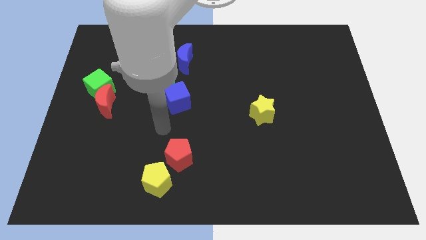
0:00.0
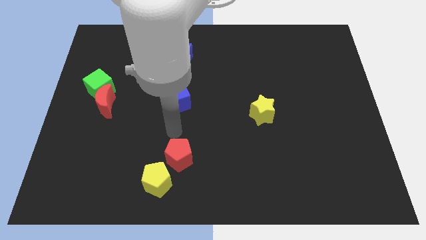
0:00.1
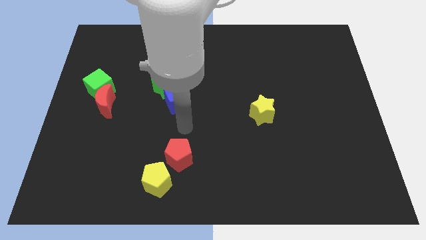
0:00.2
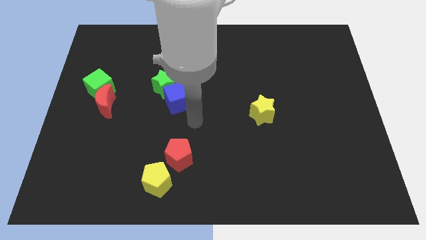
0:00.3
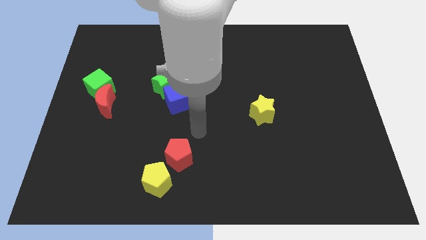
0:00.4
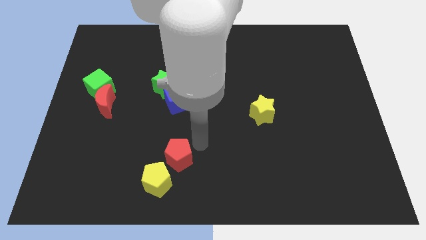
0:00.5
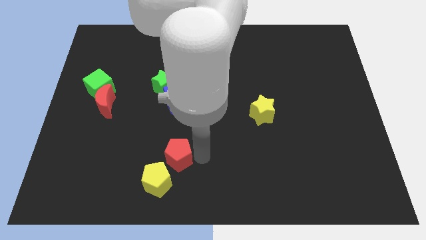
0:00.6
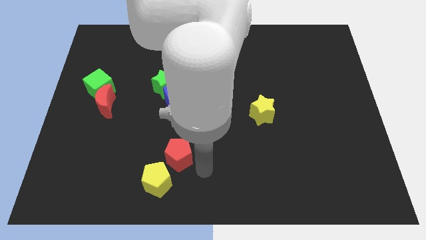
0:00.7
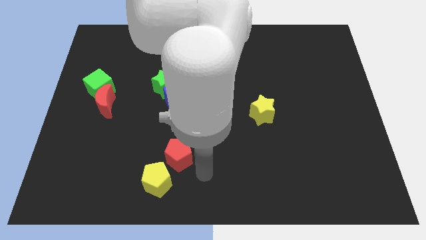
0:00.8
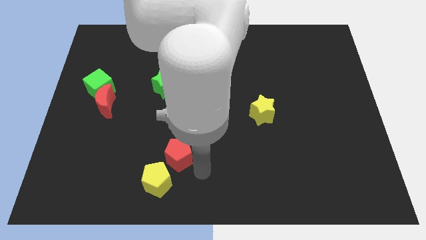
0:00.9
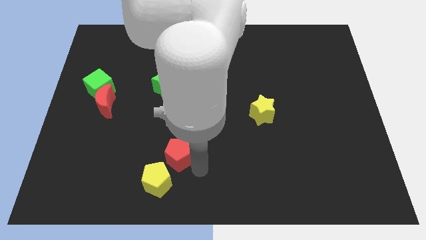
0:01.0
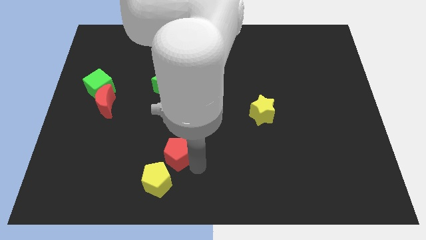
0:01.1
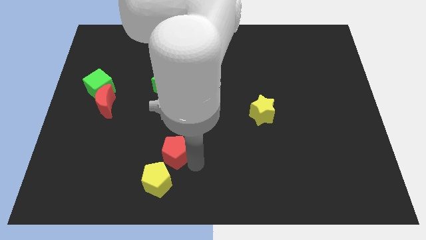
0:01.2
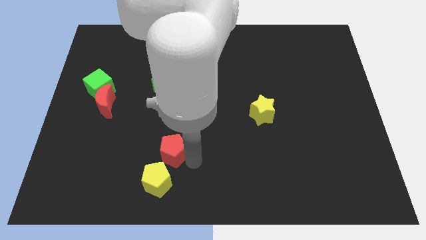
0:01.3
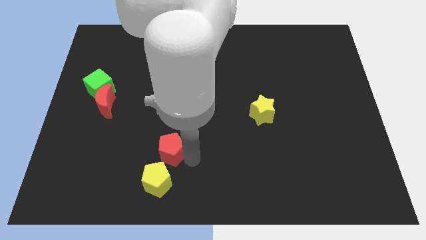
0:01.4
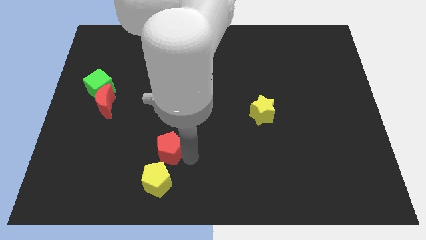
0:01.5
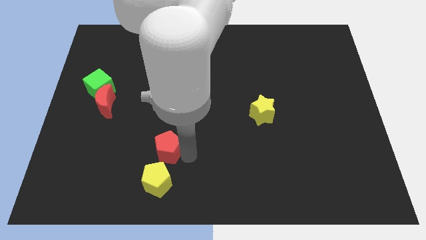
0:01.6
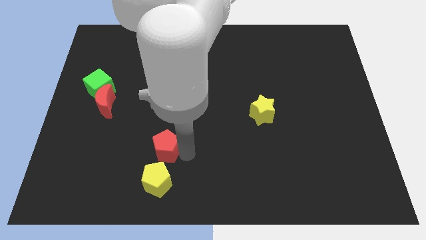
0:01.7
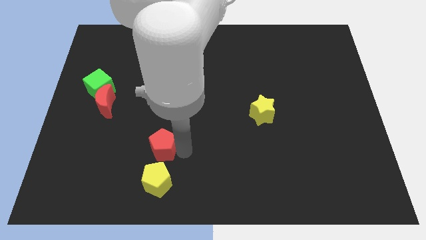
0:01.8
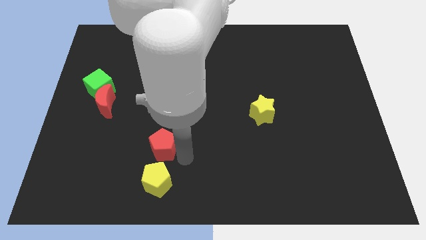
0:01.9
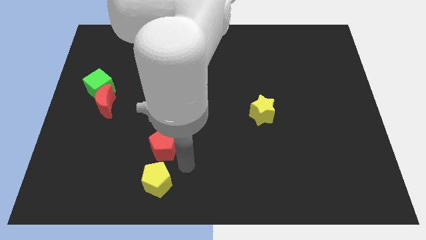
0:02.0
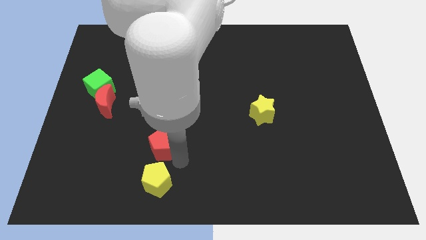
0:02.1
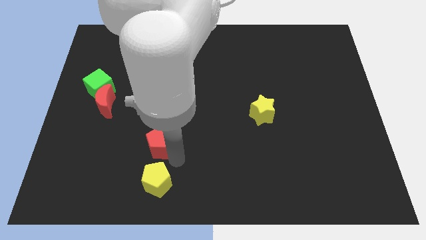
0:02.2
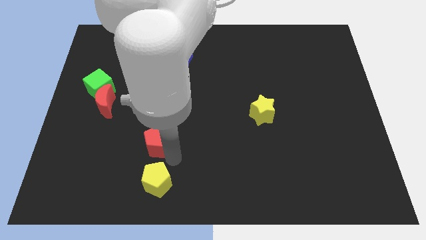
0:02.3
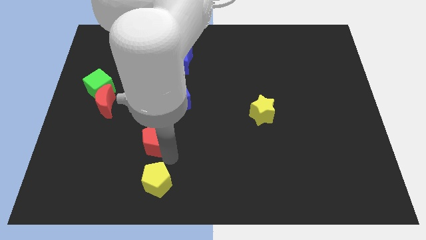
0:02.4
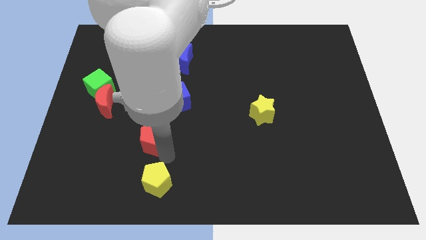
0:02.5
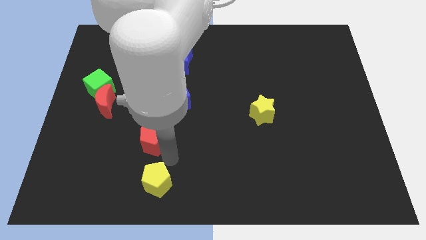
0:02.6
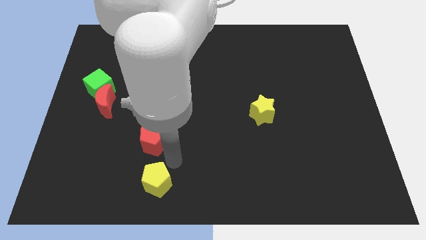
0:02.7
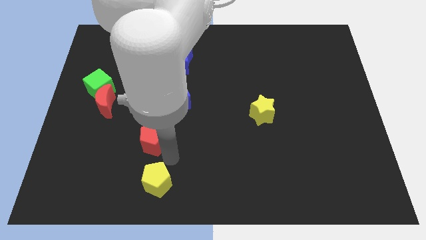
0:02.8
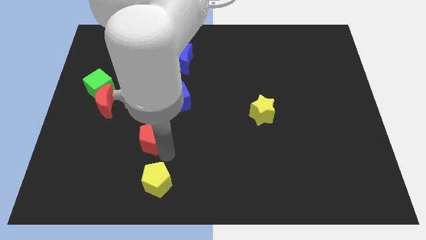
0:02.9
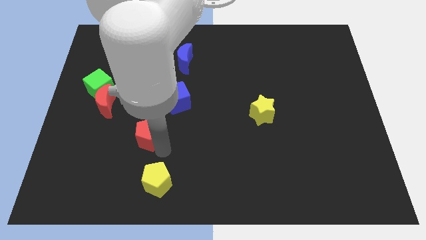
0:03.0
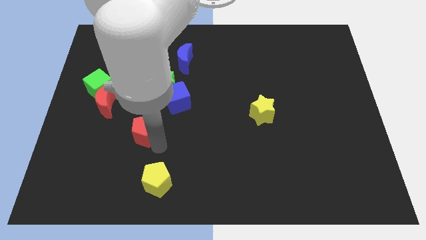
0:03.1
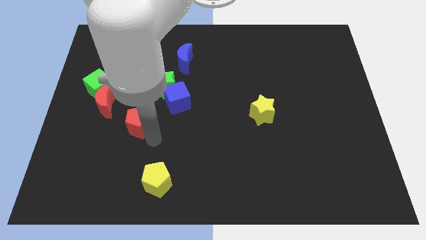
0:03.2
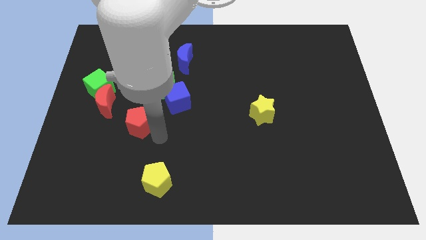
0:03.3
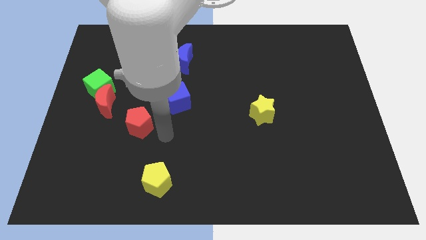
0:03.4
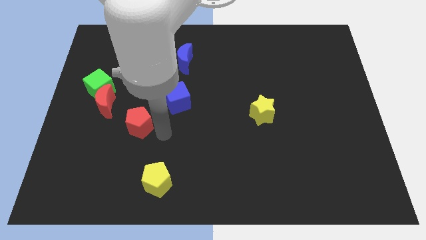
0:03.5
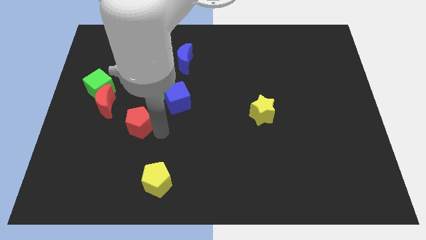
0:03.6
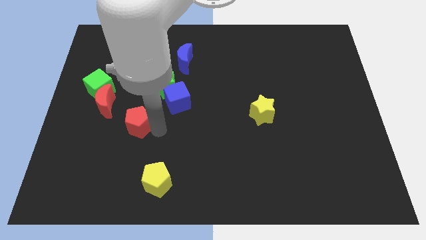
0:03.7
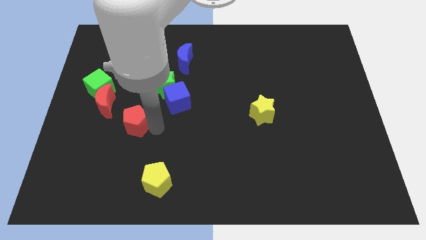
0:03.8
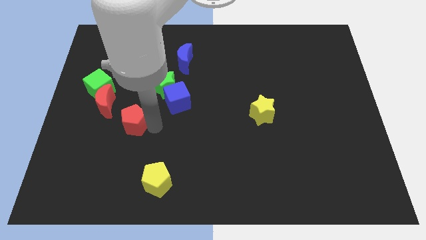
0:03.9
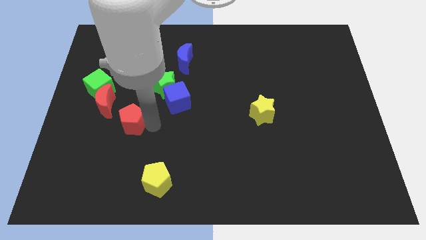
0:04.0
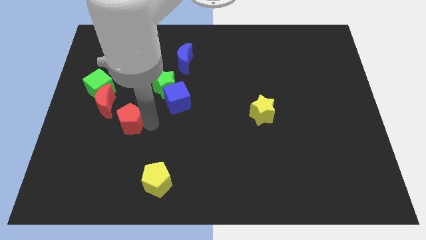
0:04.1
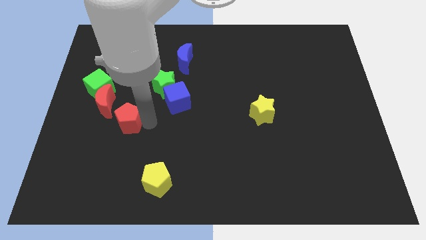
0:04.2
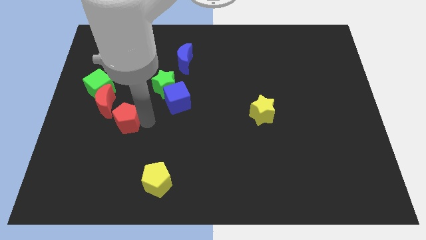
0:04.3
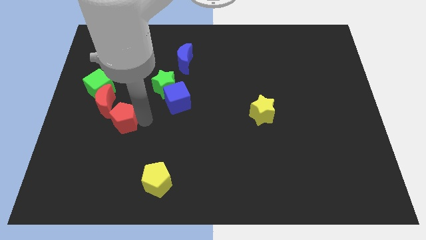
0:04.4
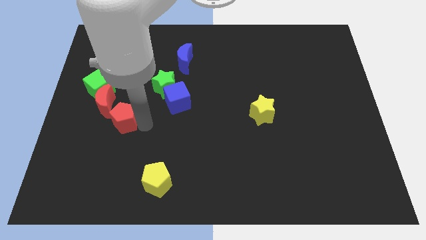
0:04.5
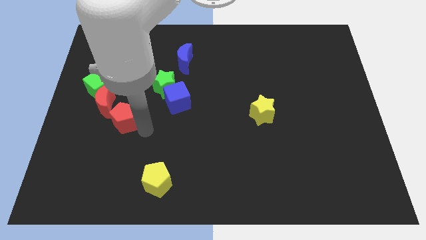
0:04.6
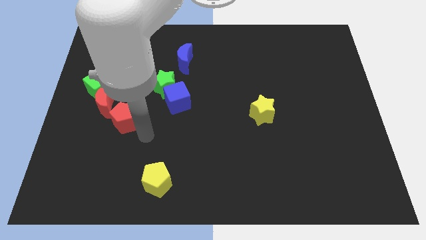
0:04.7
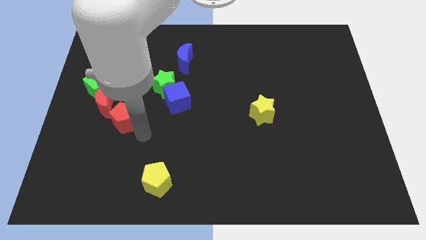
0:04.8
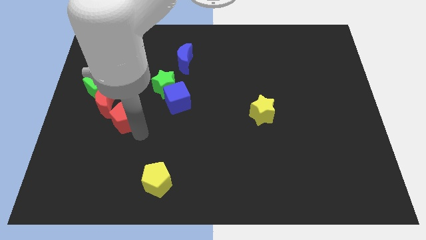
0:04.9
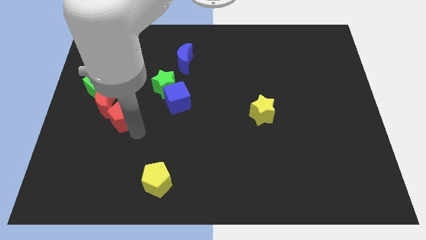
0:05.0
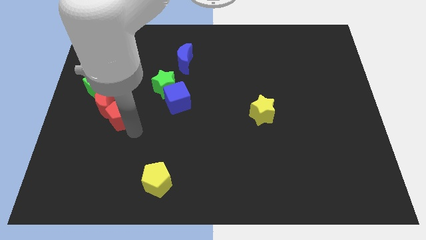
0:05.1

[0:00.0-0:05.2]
slide the red pentagon next to the red moon

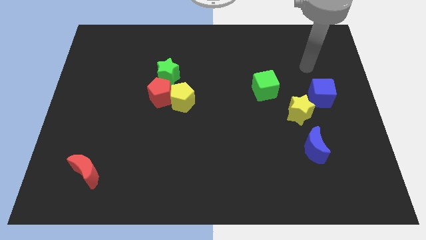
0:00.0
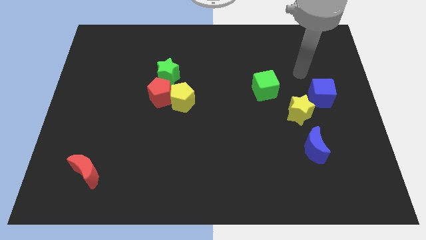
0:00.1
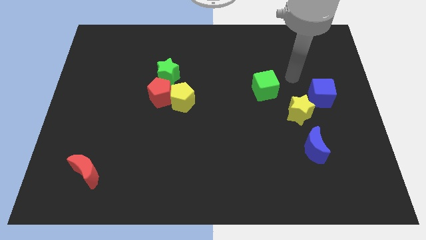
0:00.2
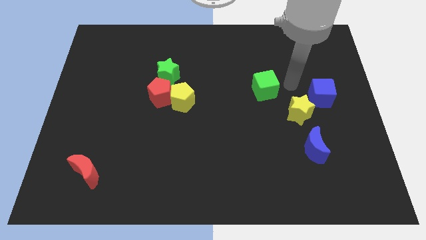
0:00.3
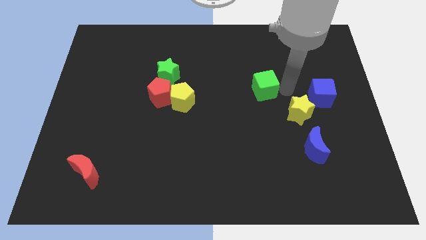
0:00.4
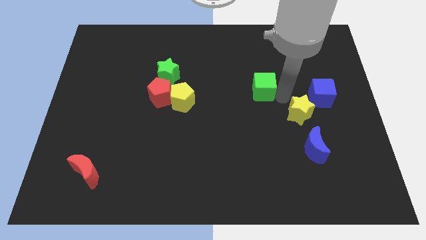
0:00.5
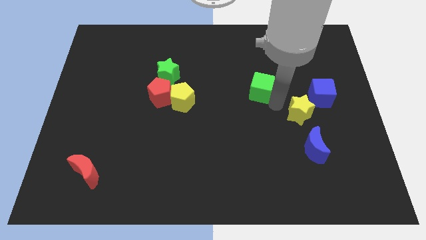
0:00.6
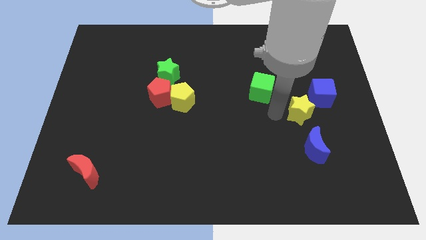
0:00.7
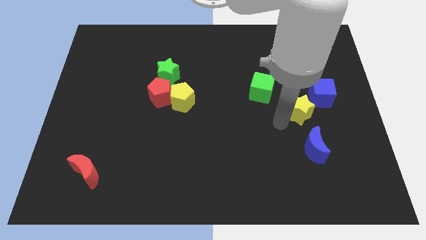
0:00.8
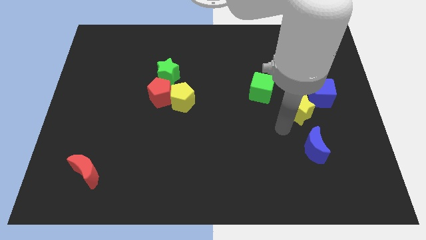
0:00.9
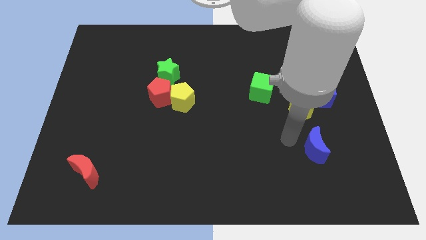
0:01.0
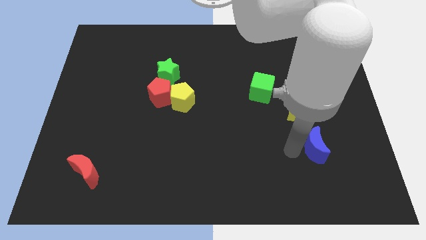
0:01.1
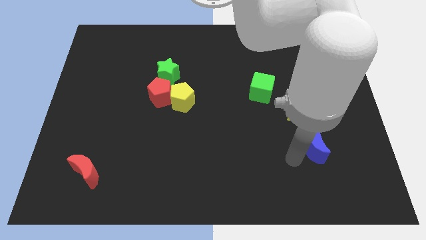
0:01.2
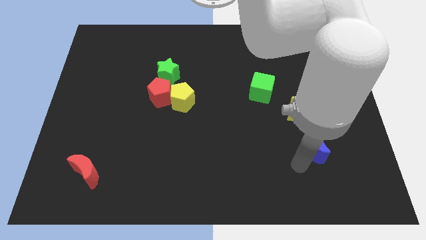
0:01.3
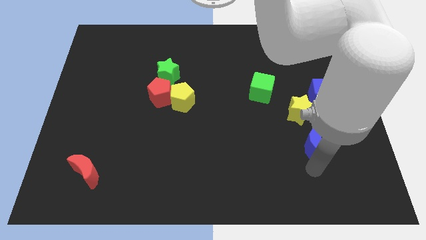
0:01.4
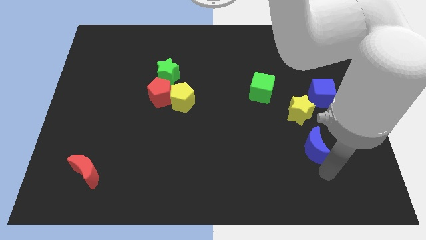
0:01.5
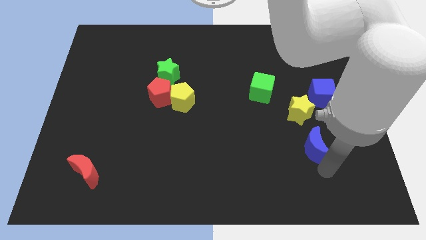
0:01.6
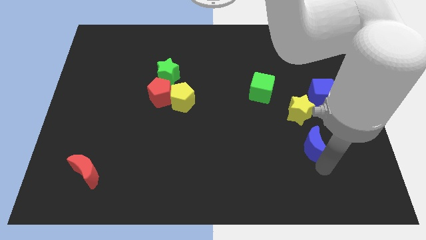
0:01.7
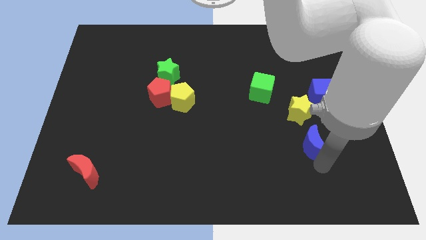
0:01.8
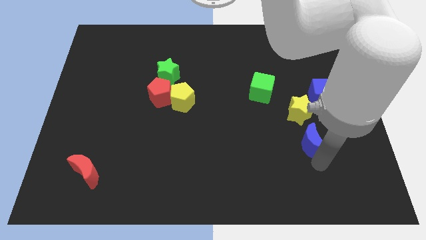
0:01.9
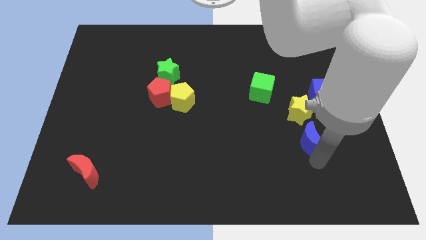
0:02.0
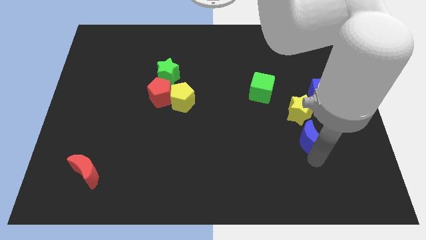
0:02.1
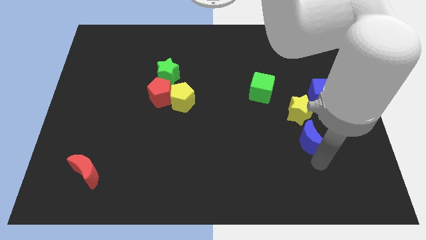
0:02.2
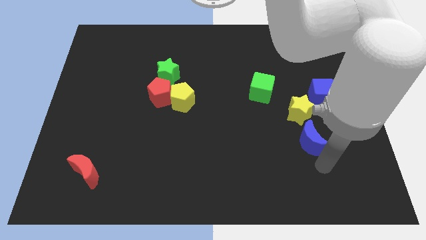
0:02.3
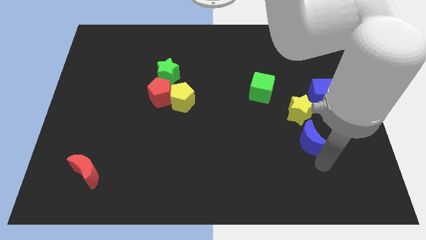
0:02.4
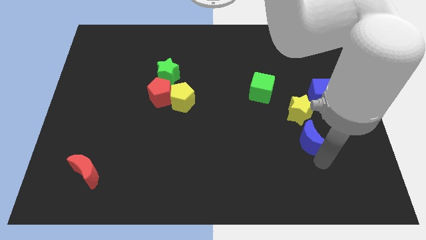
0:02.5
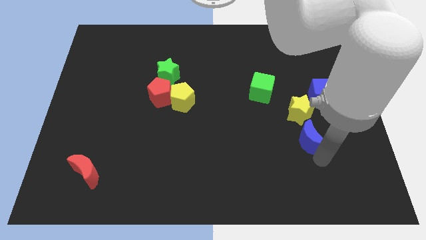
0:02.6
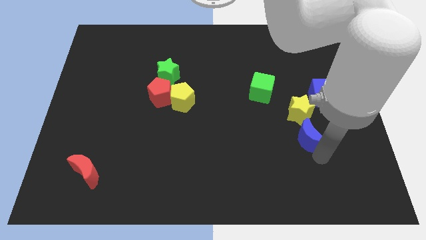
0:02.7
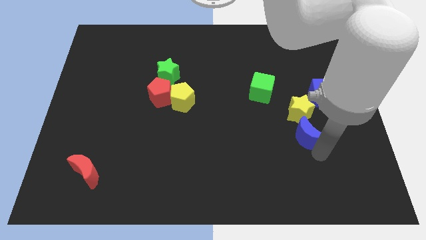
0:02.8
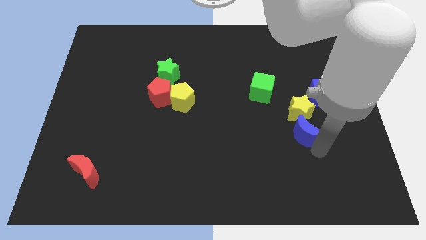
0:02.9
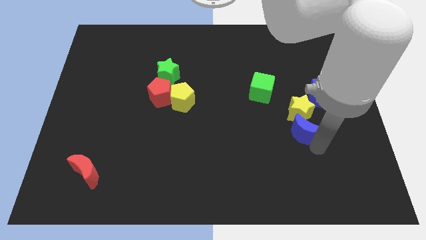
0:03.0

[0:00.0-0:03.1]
put the blue moon next to the yellow star

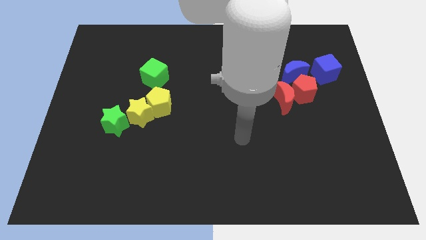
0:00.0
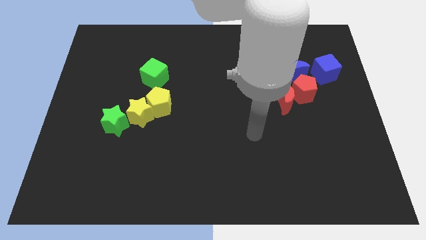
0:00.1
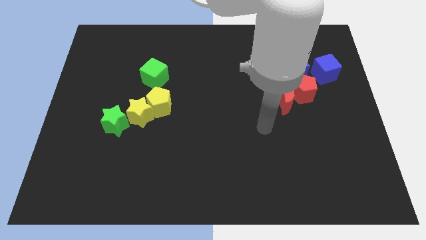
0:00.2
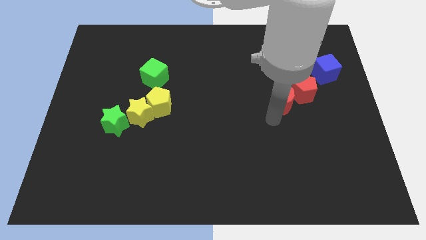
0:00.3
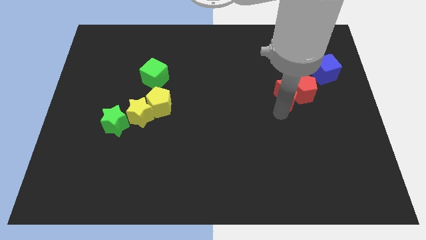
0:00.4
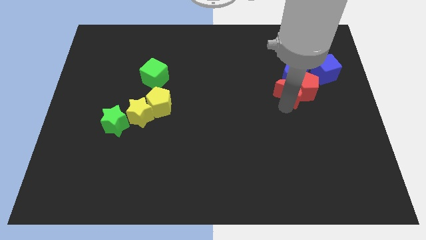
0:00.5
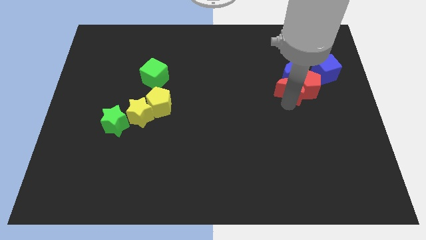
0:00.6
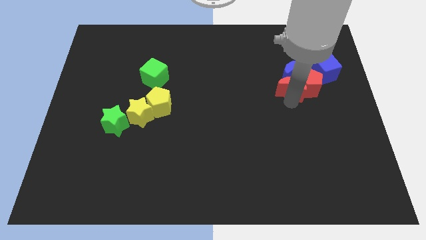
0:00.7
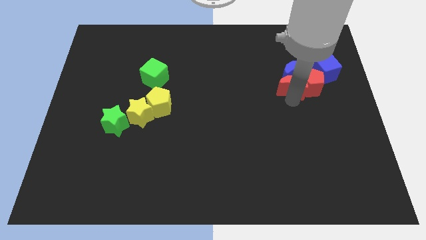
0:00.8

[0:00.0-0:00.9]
push the red pentagon close to the blue cube
